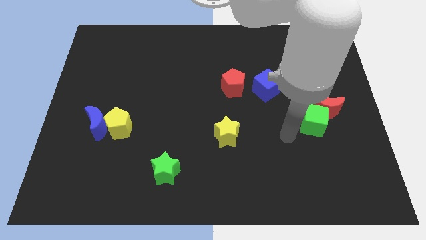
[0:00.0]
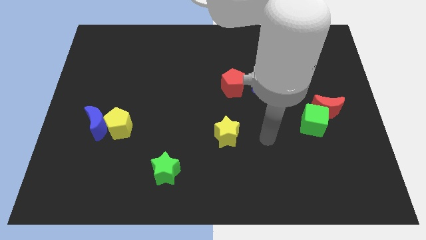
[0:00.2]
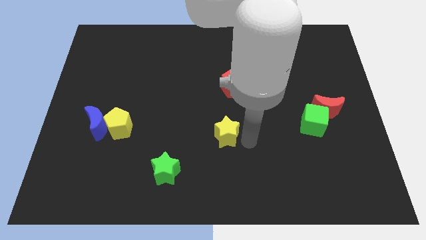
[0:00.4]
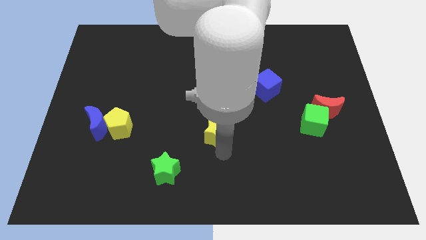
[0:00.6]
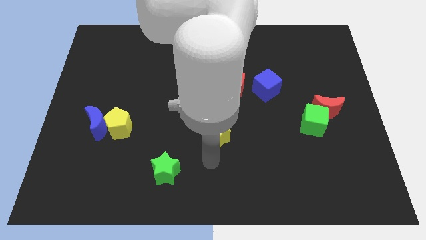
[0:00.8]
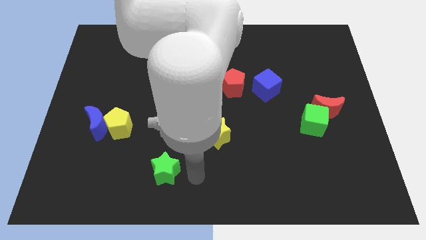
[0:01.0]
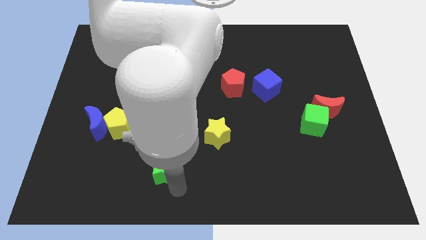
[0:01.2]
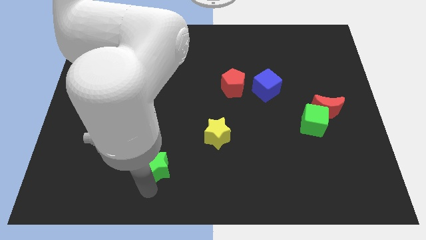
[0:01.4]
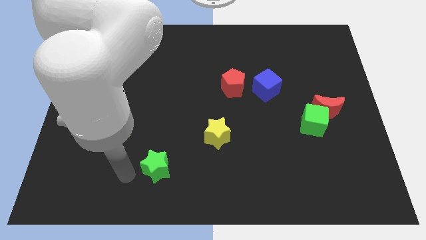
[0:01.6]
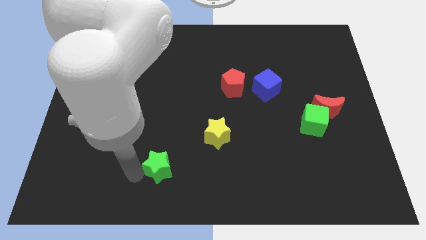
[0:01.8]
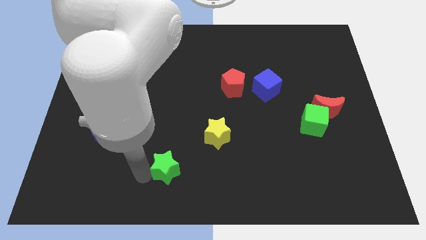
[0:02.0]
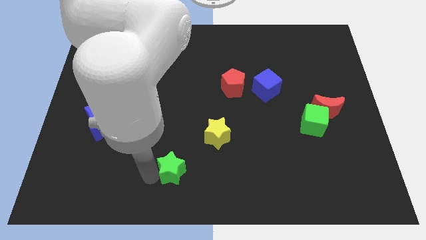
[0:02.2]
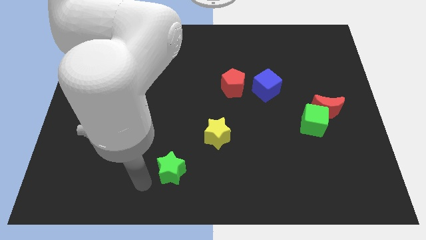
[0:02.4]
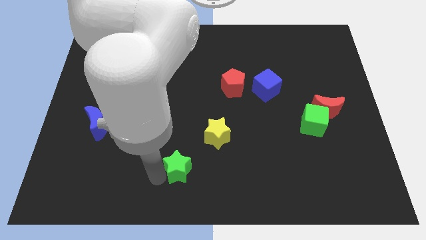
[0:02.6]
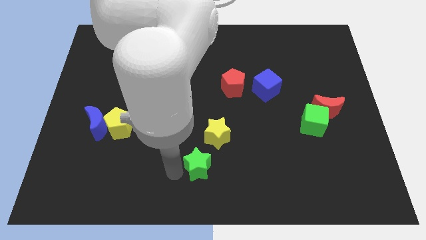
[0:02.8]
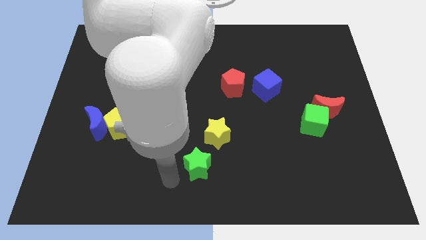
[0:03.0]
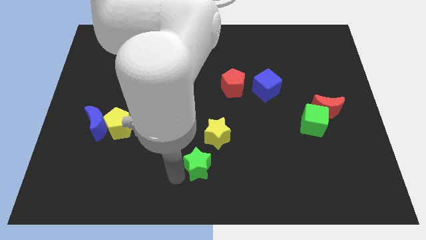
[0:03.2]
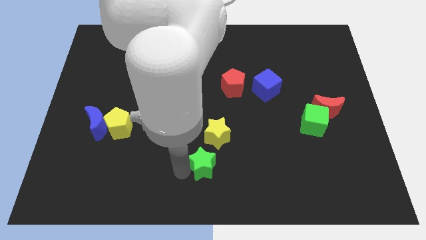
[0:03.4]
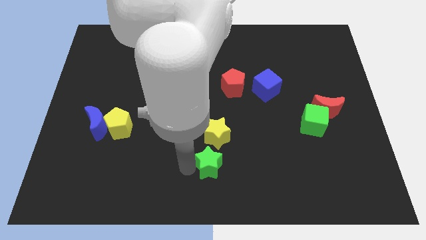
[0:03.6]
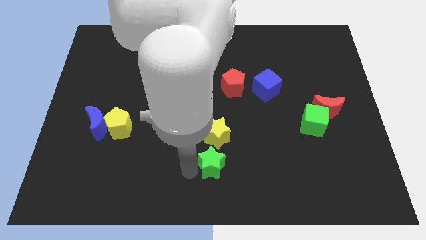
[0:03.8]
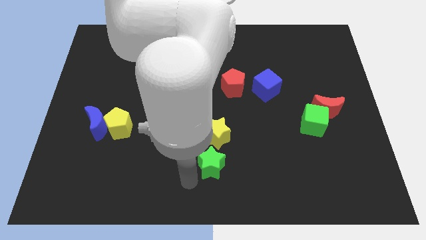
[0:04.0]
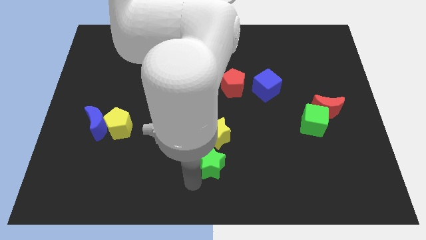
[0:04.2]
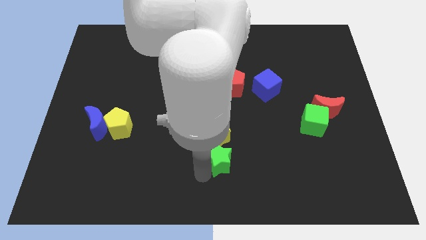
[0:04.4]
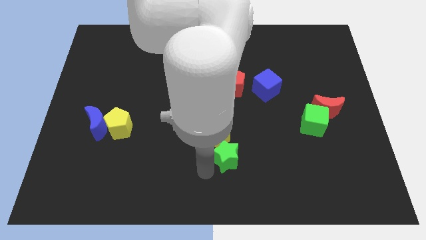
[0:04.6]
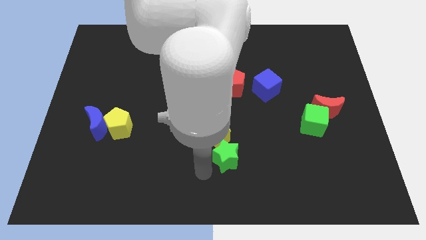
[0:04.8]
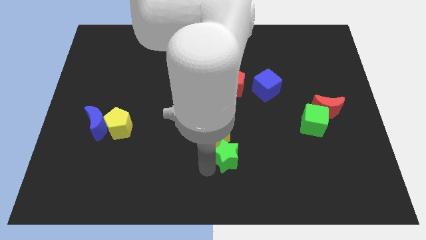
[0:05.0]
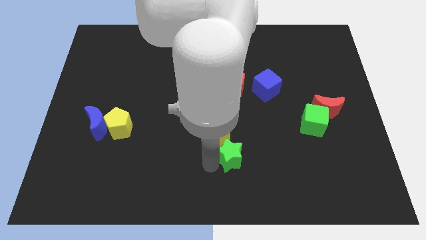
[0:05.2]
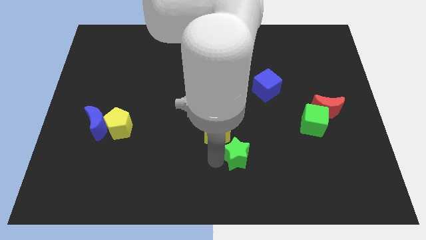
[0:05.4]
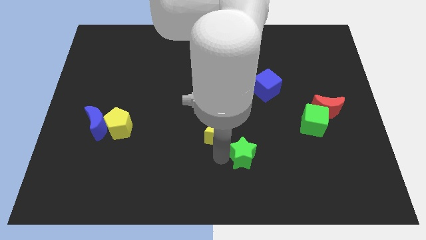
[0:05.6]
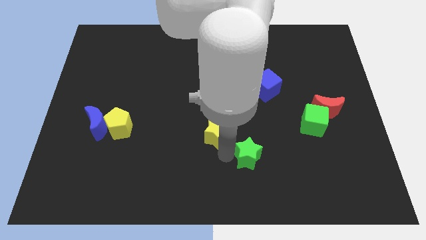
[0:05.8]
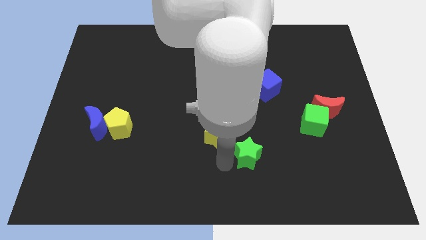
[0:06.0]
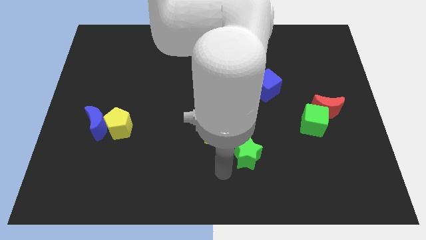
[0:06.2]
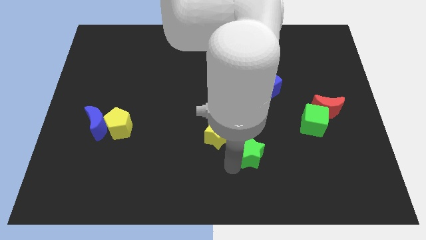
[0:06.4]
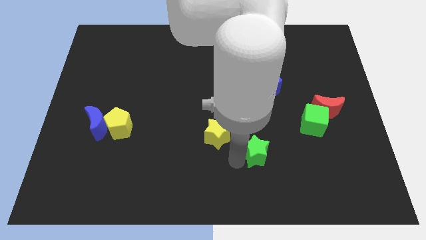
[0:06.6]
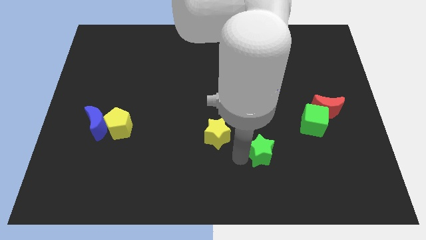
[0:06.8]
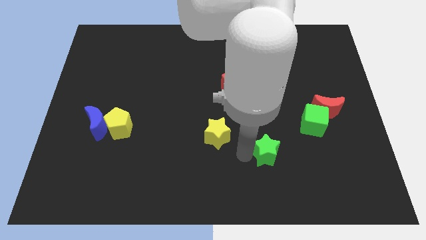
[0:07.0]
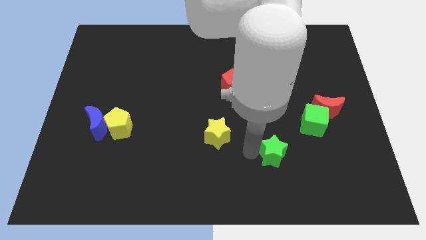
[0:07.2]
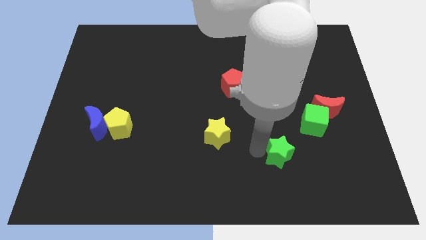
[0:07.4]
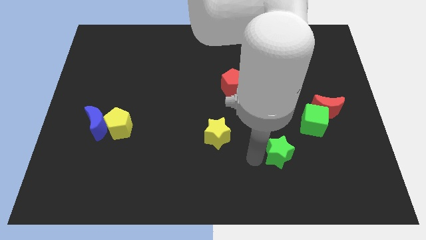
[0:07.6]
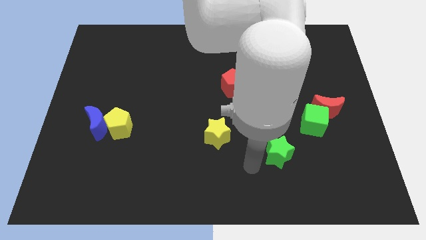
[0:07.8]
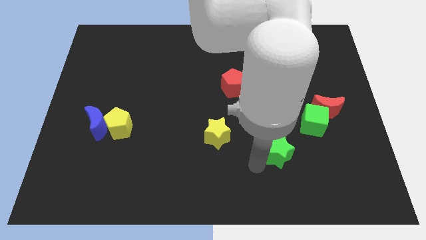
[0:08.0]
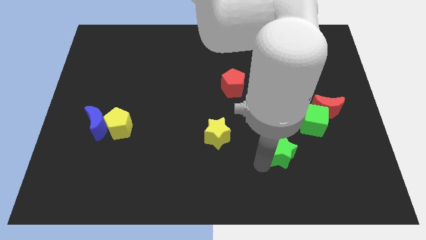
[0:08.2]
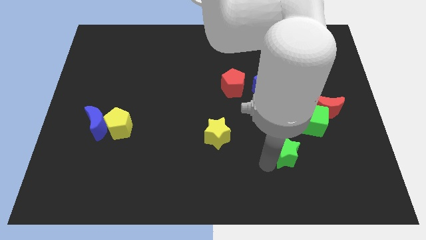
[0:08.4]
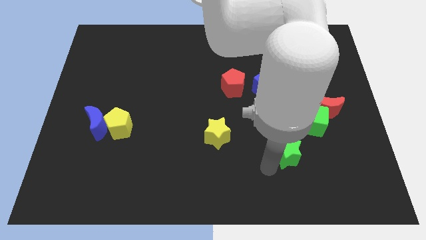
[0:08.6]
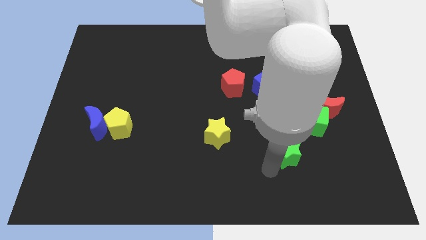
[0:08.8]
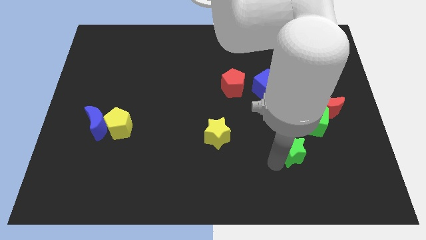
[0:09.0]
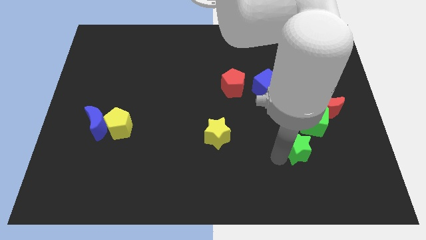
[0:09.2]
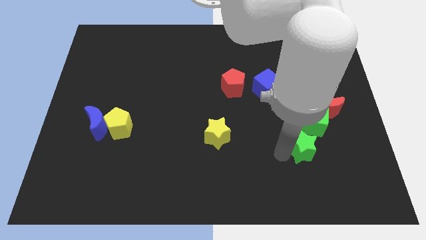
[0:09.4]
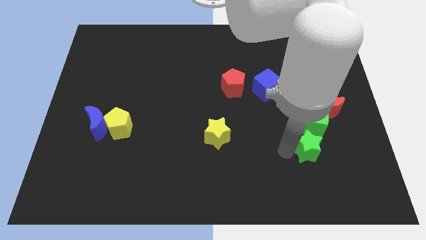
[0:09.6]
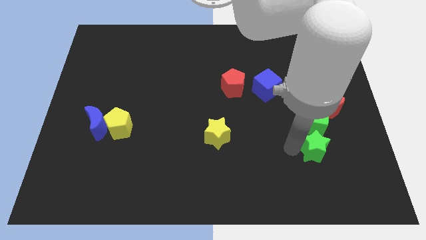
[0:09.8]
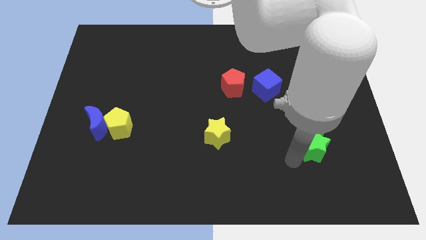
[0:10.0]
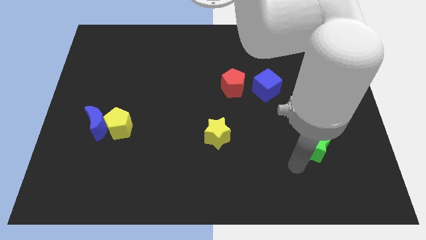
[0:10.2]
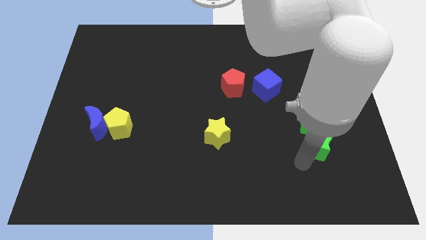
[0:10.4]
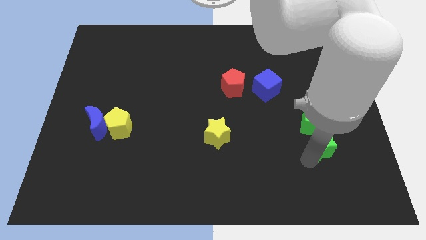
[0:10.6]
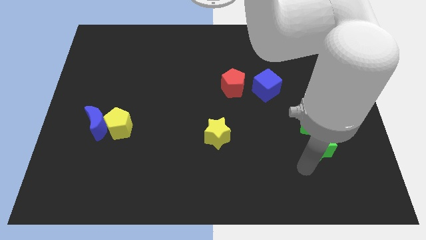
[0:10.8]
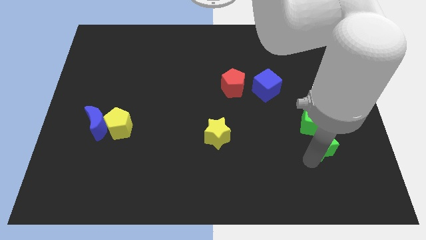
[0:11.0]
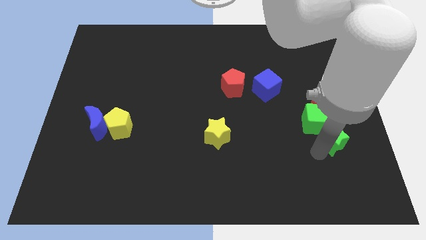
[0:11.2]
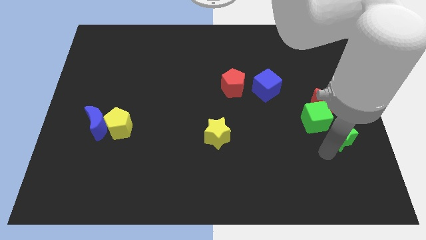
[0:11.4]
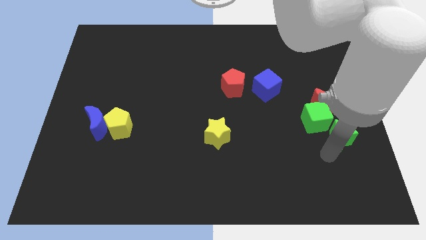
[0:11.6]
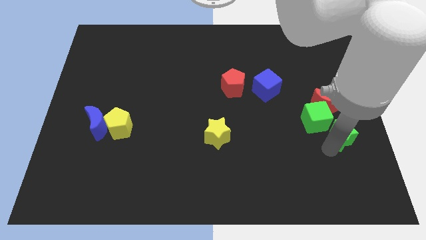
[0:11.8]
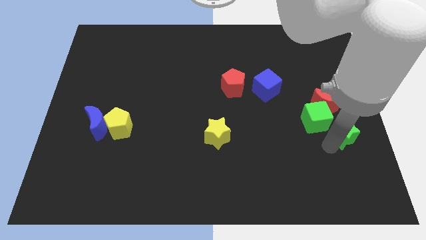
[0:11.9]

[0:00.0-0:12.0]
slide the green star to the center right
